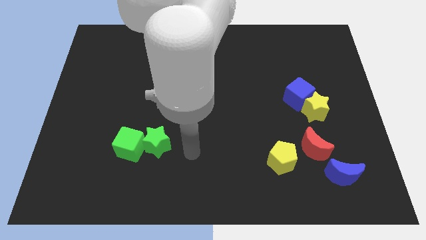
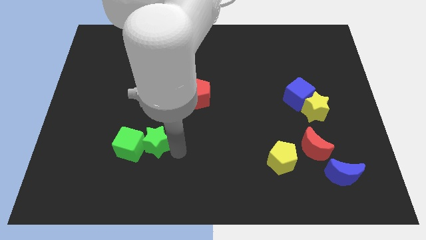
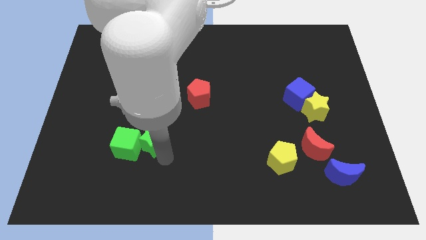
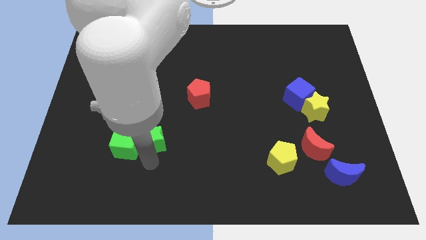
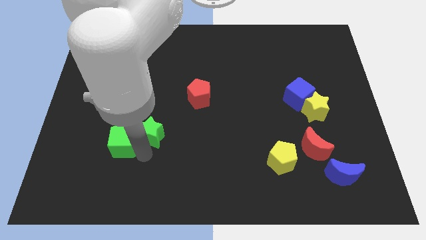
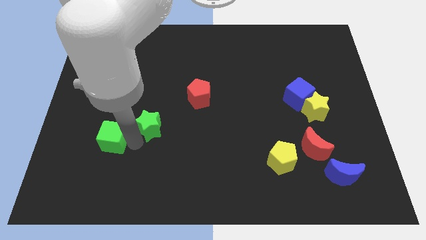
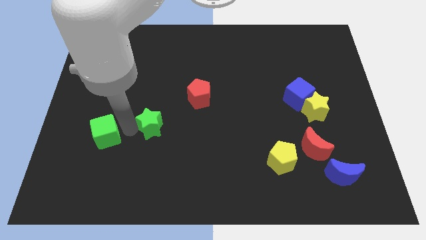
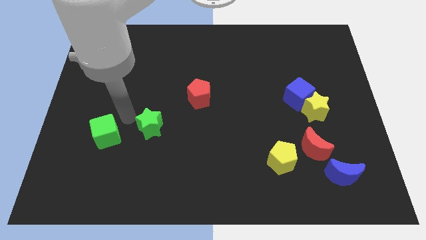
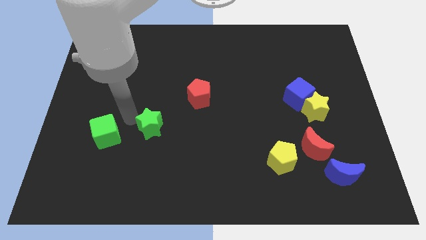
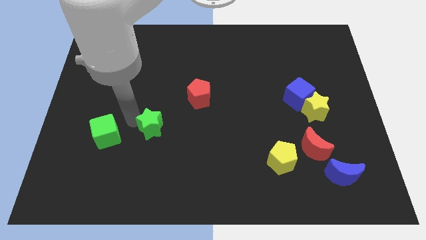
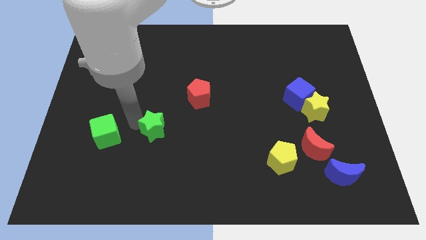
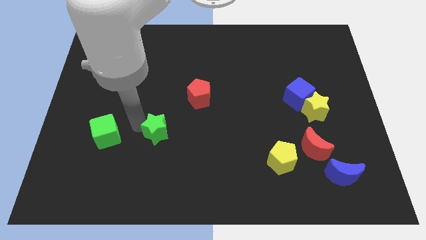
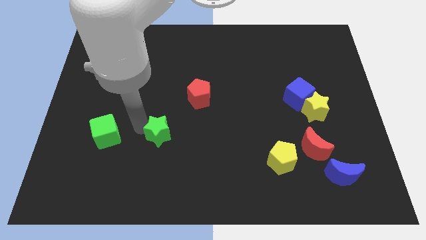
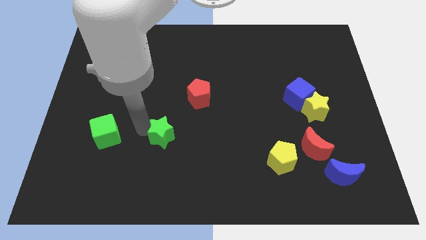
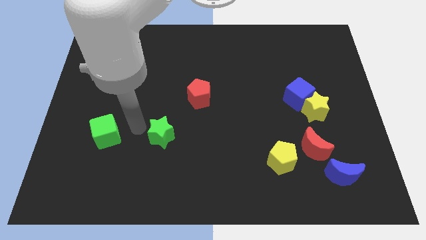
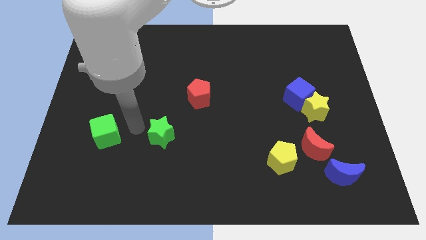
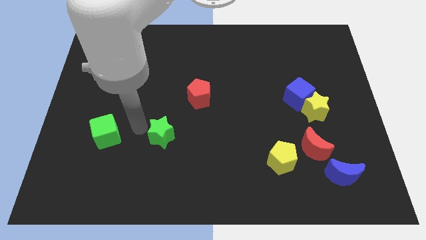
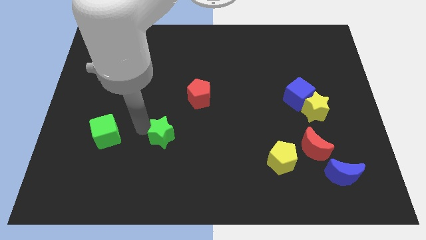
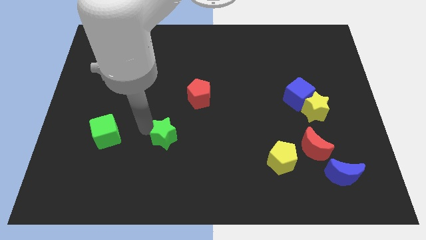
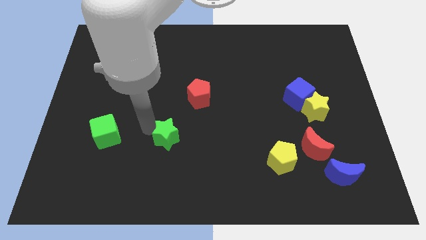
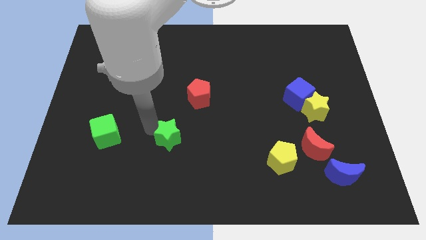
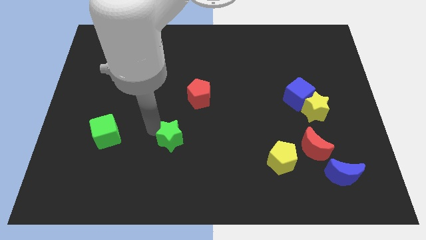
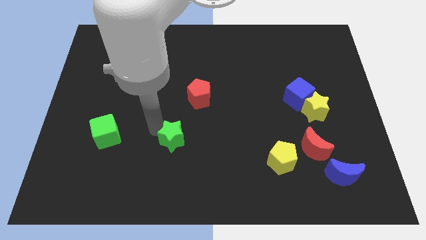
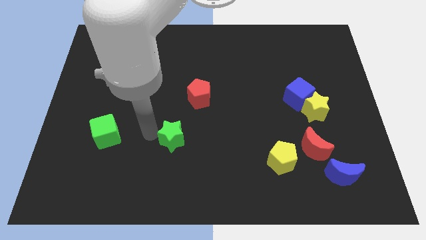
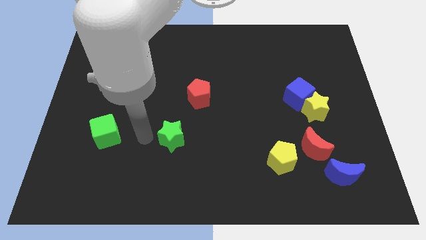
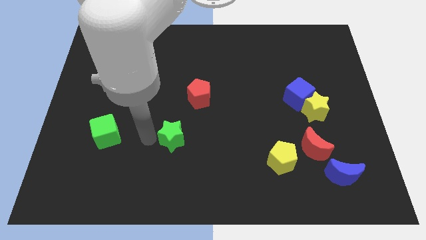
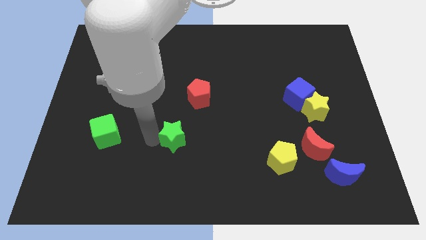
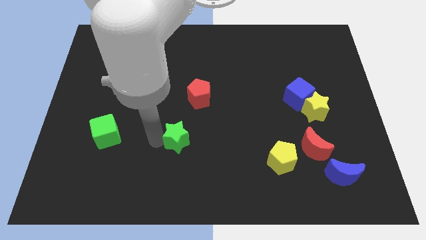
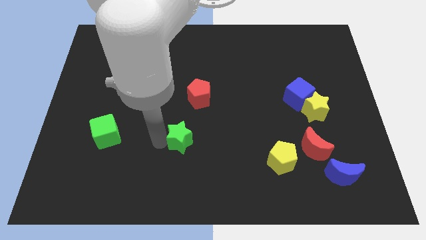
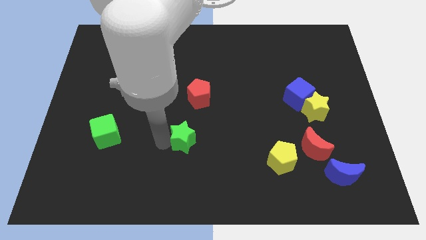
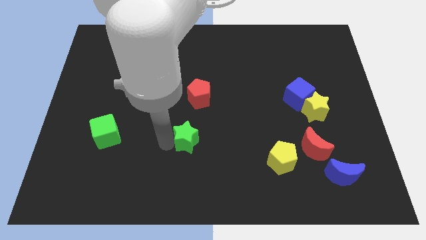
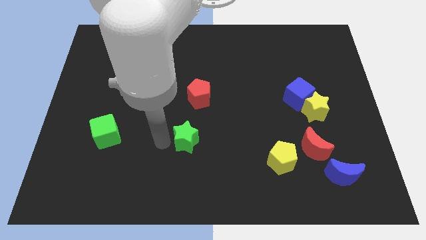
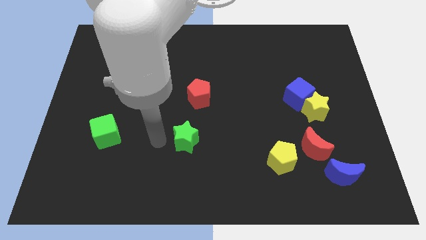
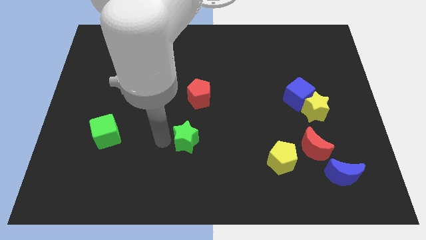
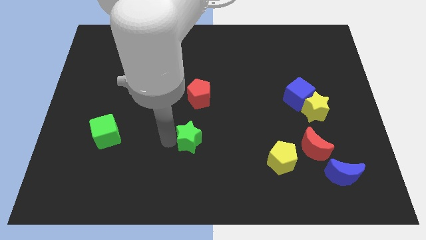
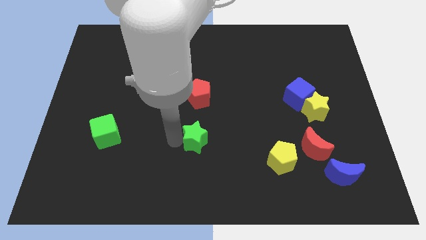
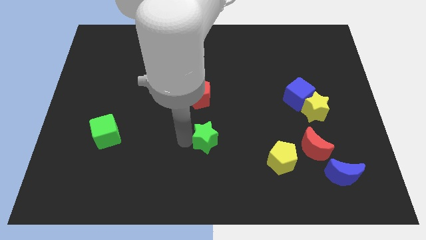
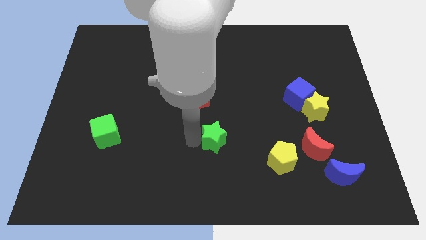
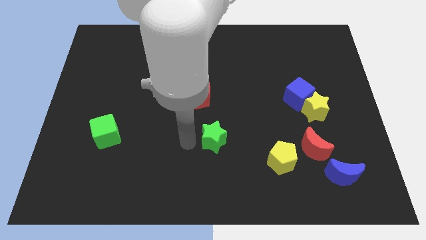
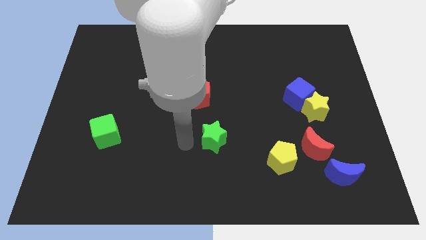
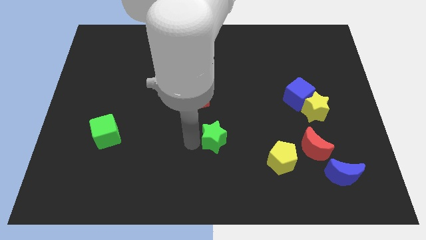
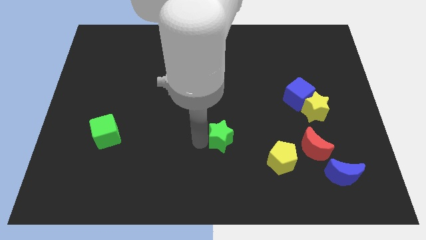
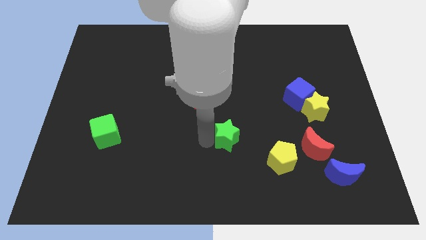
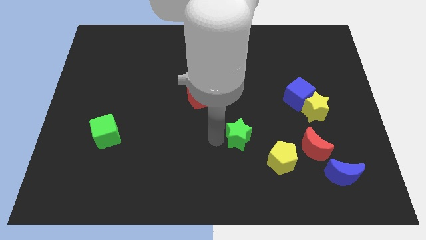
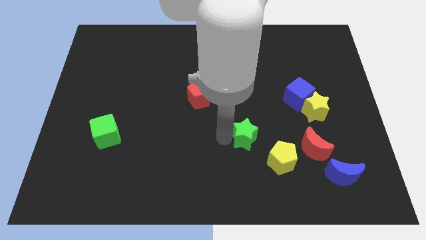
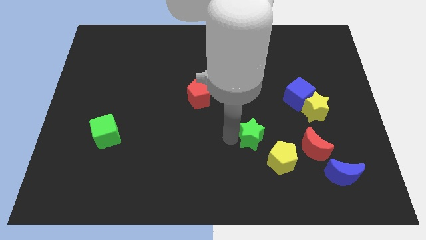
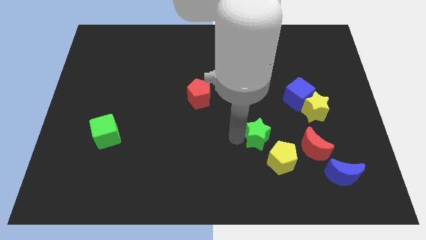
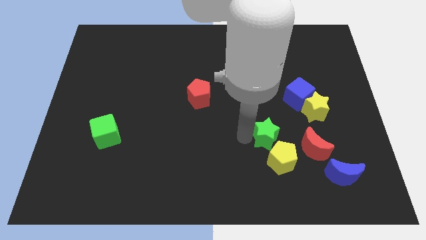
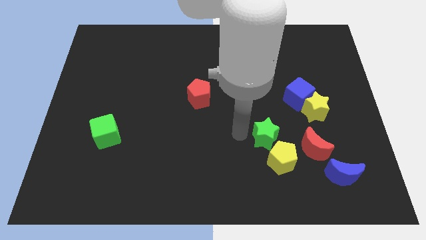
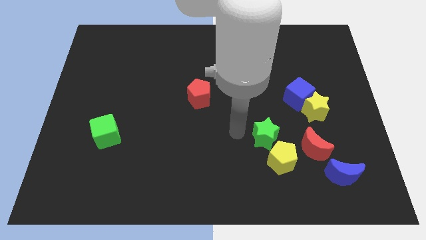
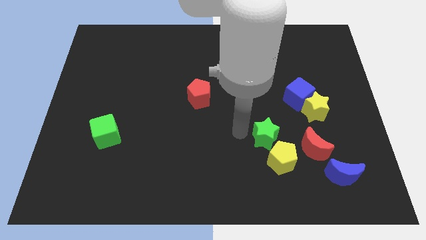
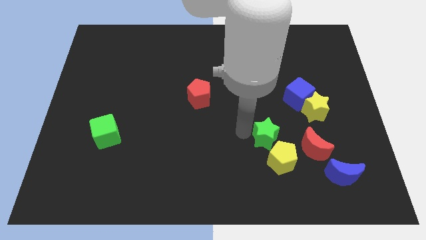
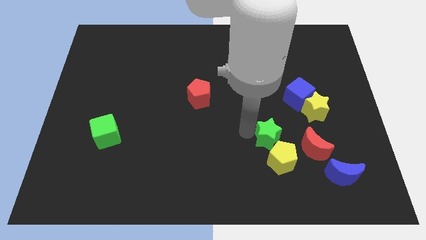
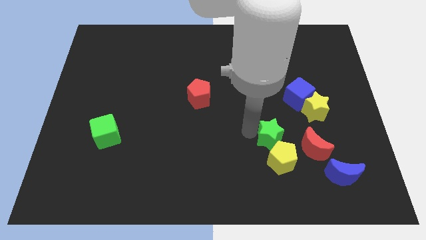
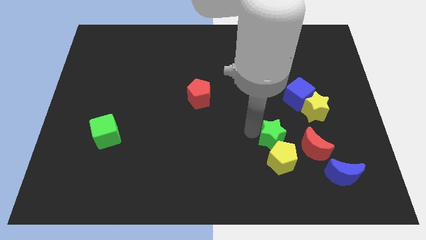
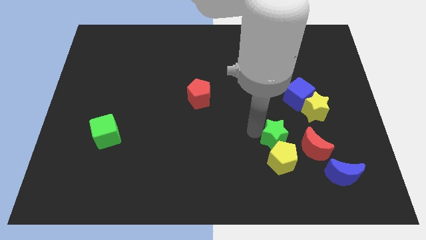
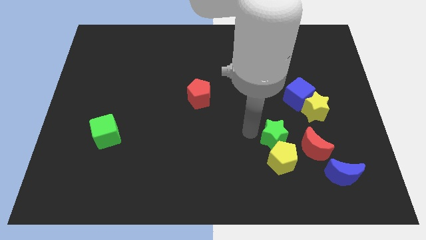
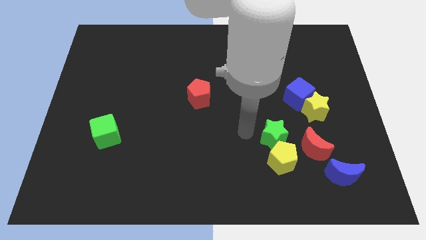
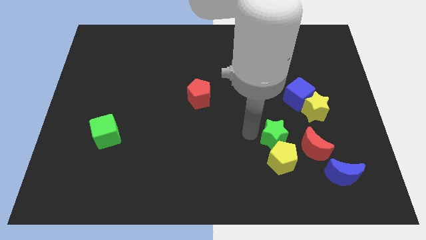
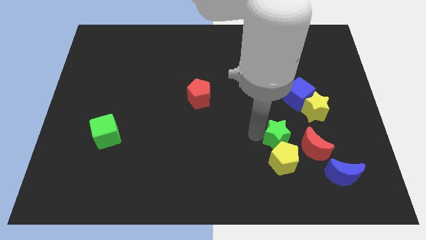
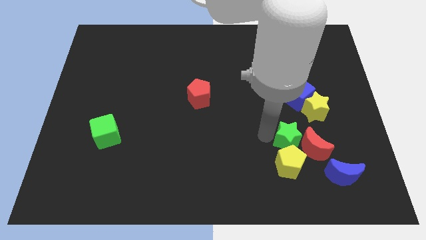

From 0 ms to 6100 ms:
push the green star close to the red moon

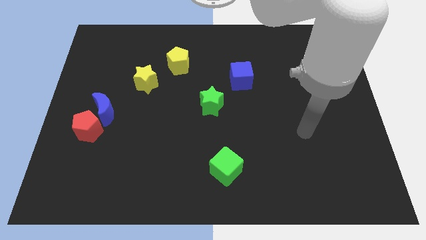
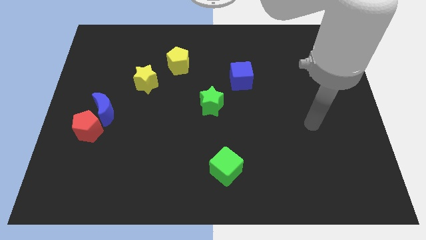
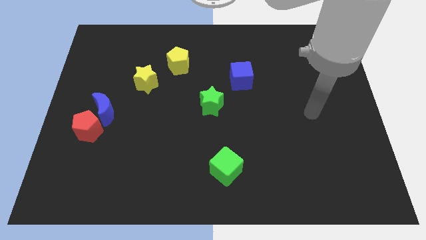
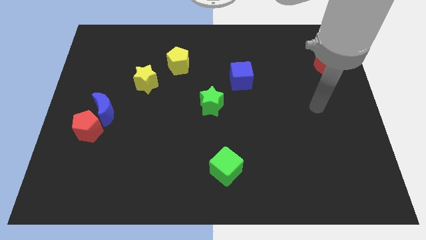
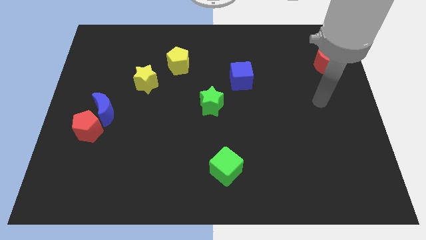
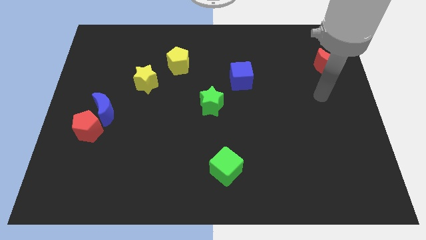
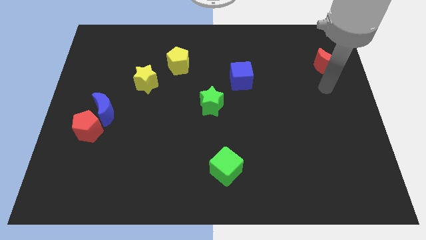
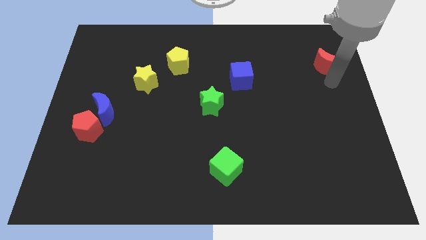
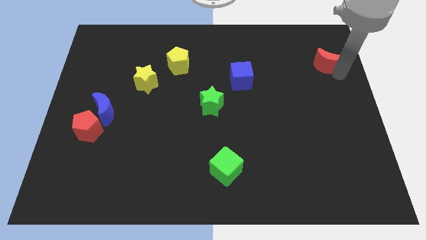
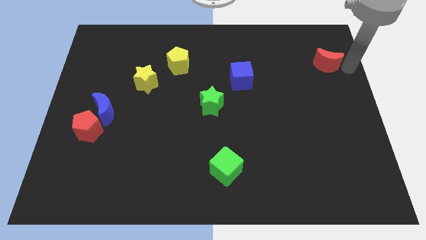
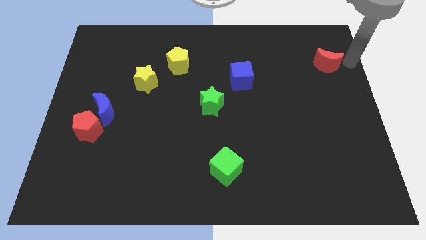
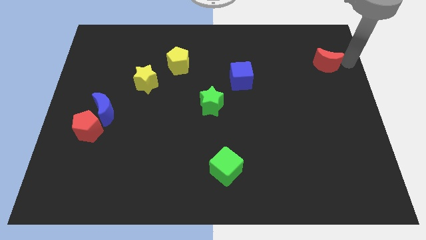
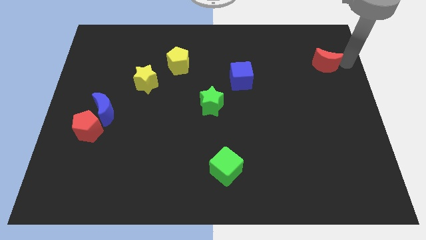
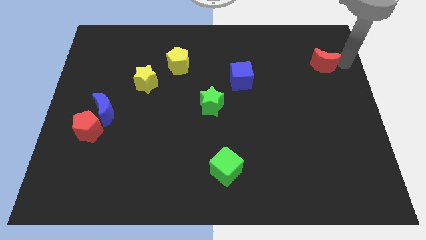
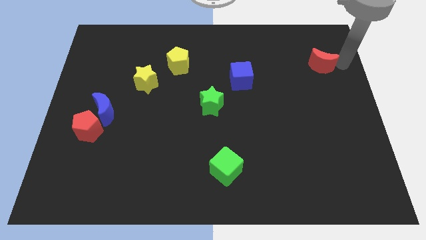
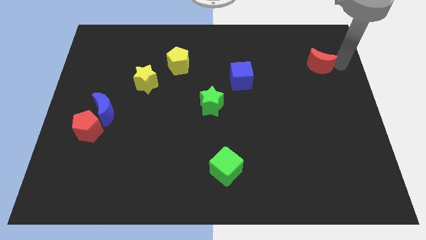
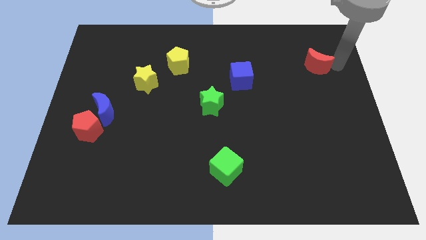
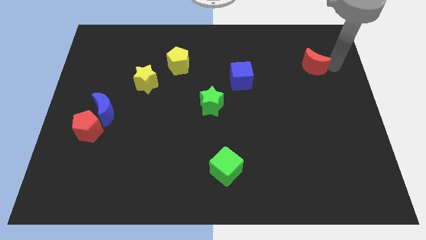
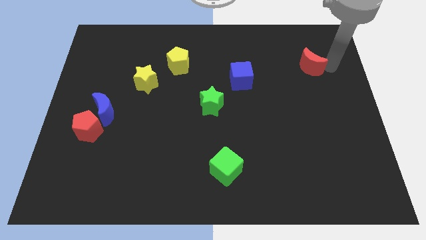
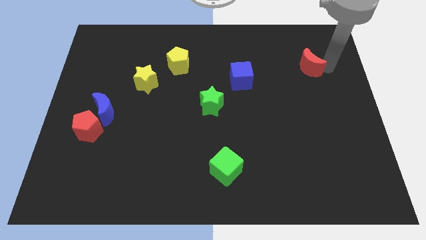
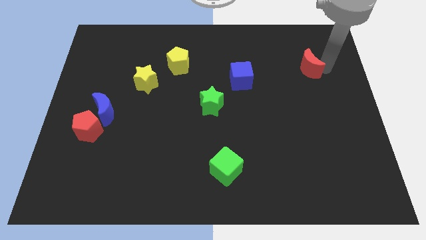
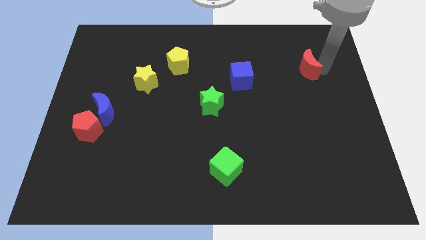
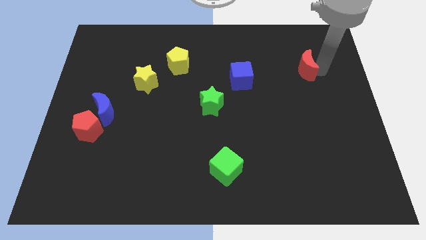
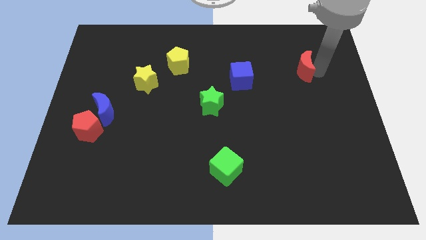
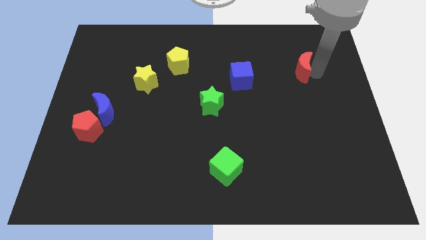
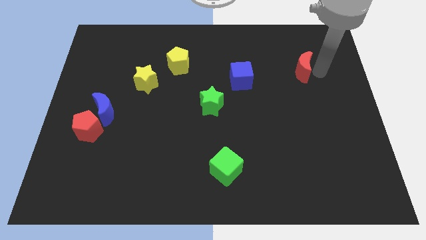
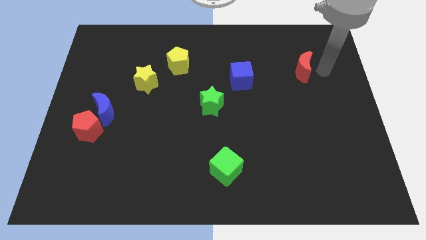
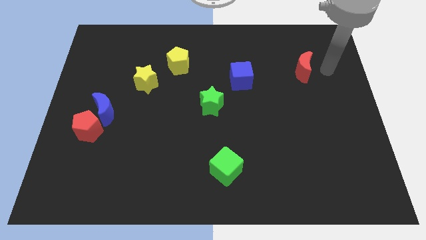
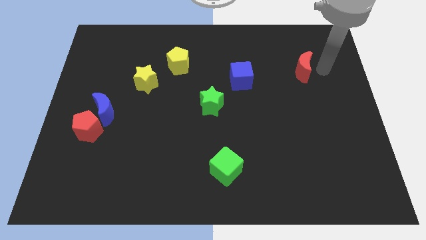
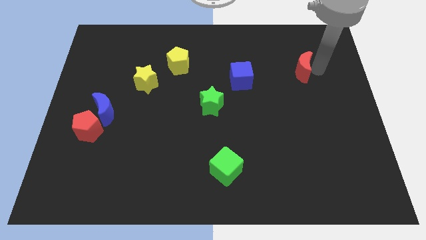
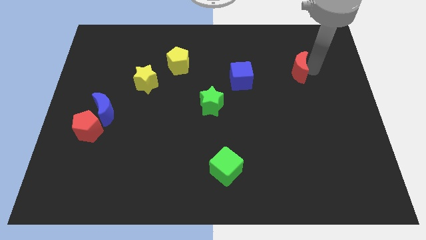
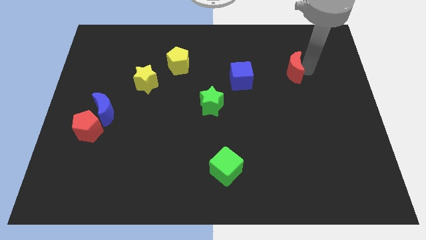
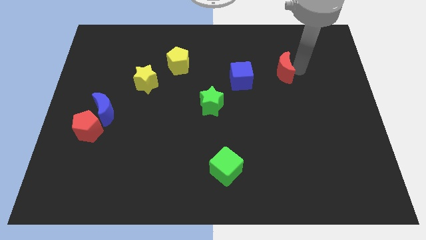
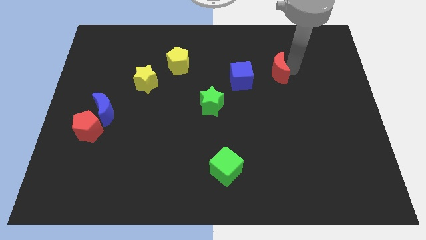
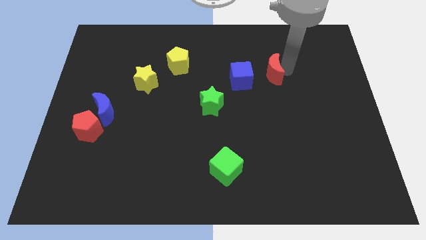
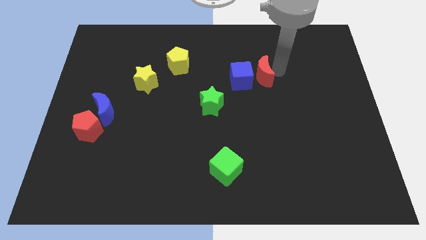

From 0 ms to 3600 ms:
slide the red moon next to the blue cube
